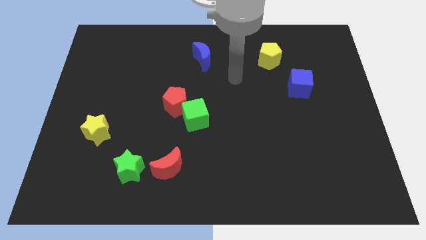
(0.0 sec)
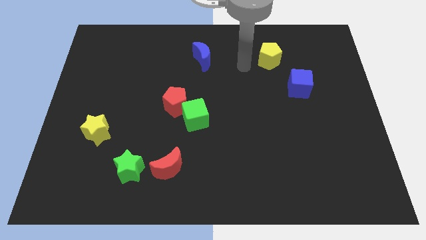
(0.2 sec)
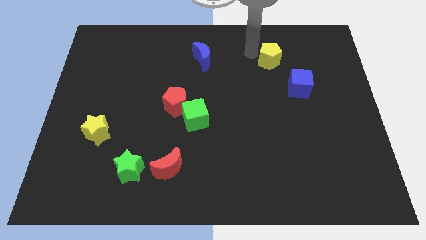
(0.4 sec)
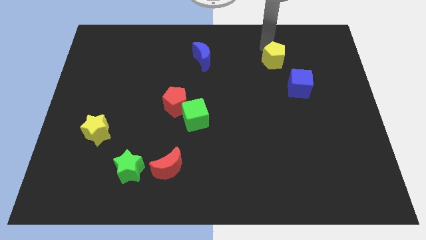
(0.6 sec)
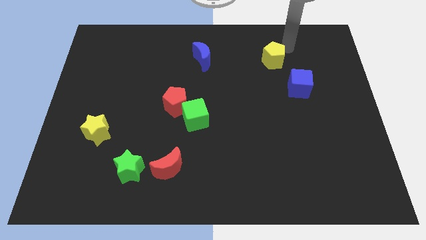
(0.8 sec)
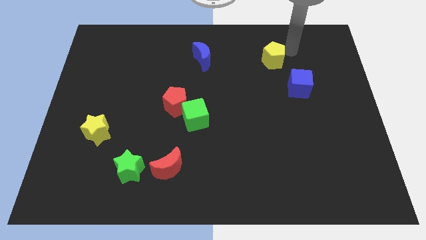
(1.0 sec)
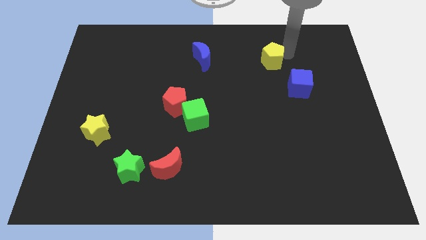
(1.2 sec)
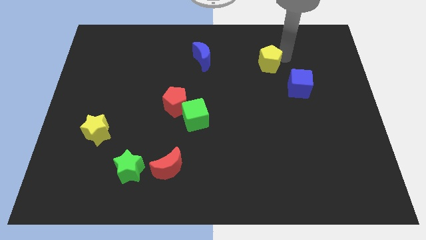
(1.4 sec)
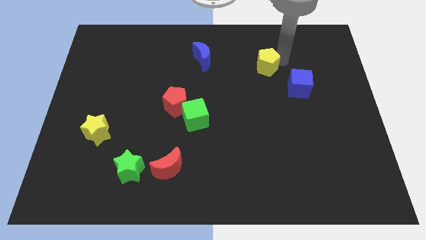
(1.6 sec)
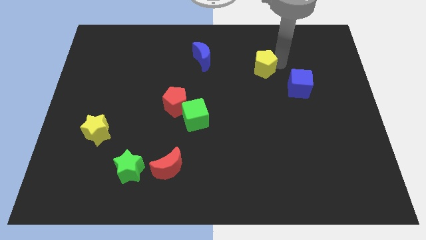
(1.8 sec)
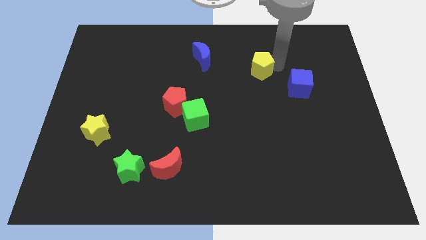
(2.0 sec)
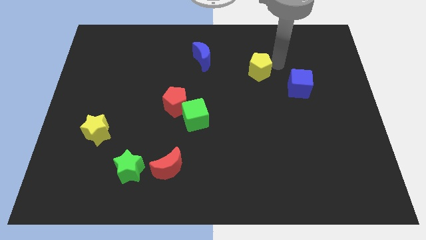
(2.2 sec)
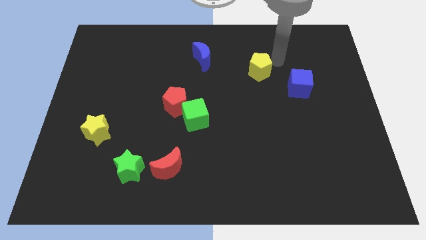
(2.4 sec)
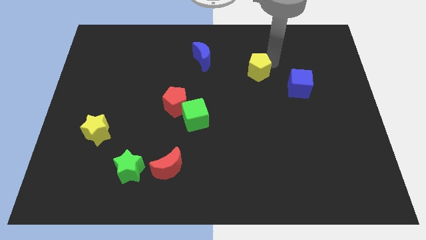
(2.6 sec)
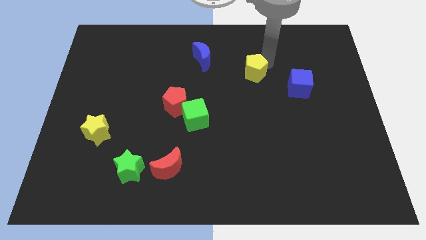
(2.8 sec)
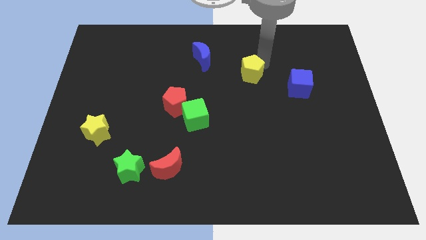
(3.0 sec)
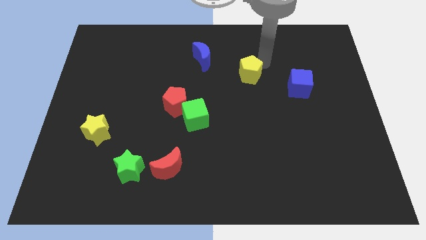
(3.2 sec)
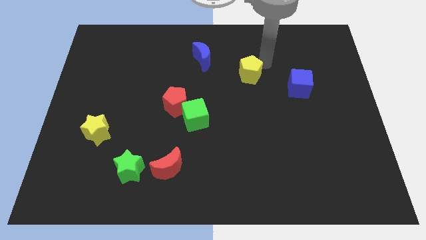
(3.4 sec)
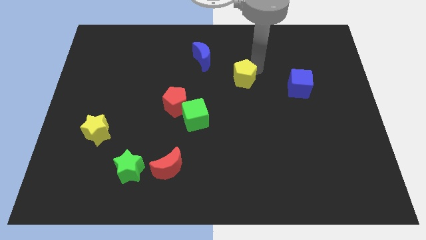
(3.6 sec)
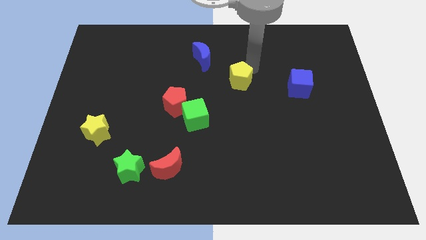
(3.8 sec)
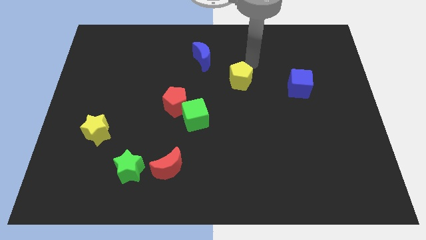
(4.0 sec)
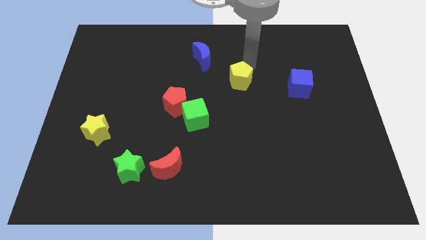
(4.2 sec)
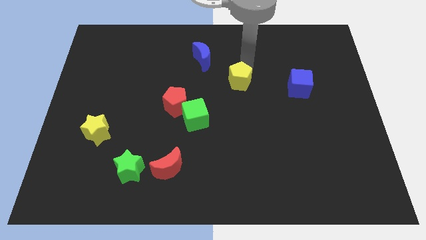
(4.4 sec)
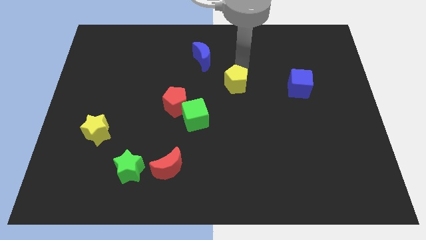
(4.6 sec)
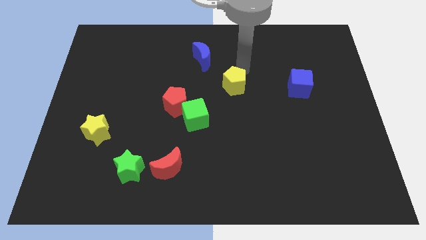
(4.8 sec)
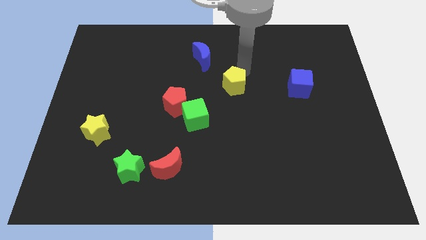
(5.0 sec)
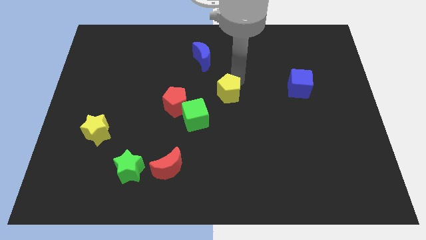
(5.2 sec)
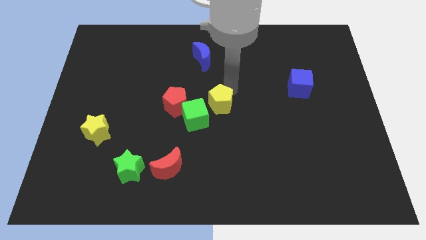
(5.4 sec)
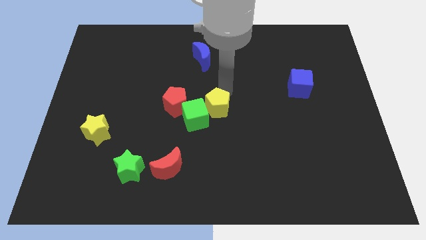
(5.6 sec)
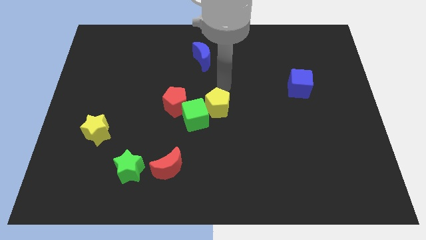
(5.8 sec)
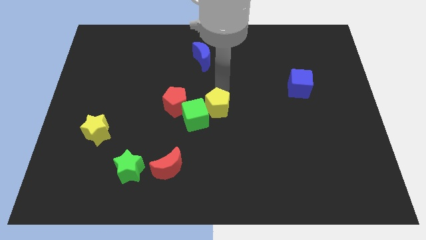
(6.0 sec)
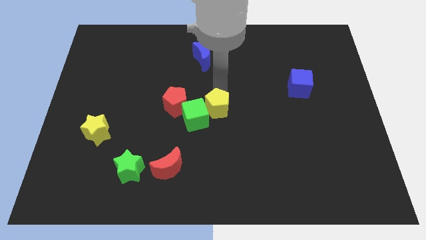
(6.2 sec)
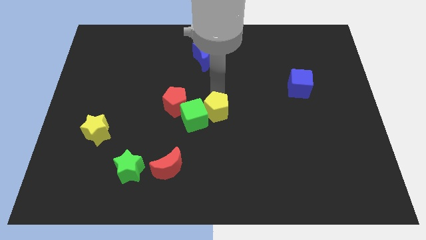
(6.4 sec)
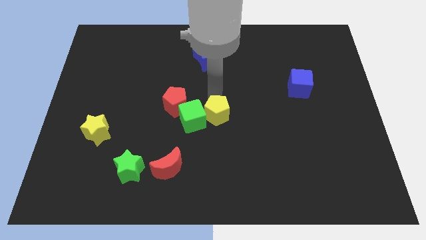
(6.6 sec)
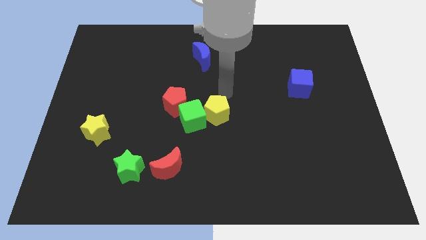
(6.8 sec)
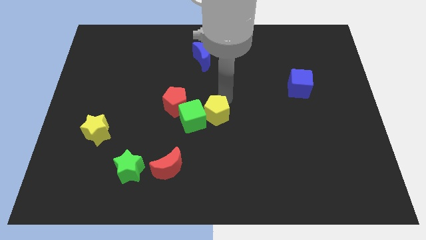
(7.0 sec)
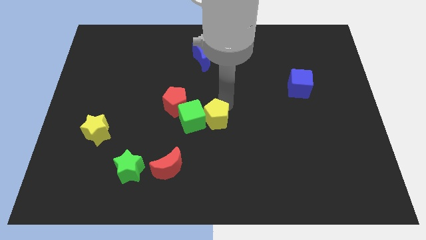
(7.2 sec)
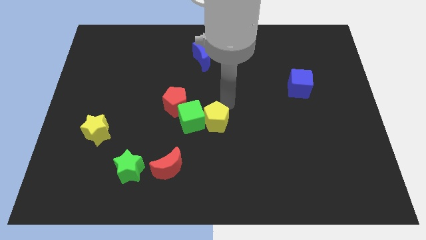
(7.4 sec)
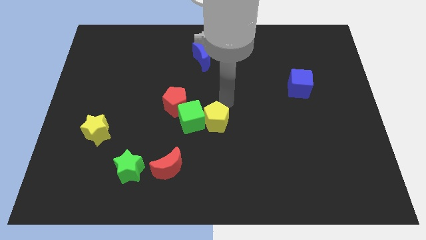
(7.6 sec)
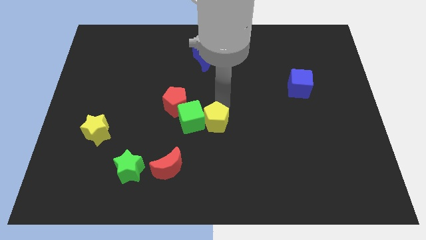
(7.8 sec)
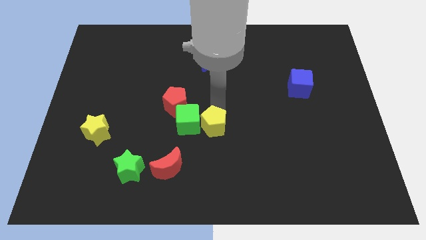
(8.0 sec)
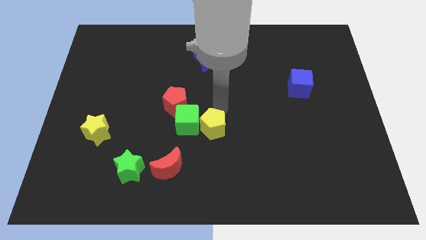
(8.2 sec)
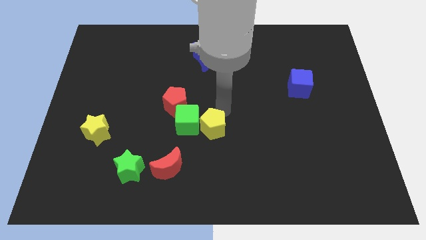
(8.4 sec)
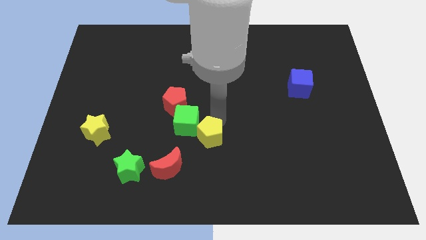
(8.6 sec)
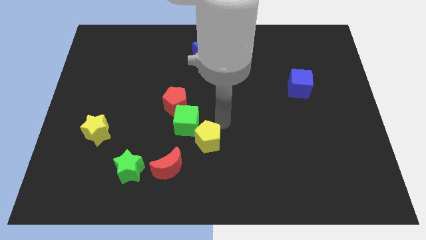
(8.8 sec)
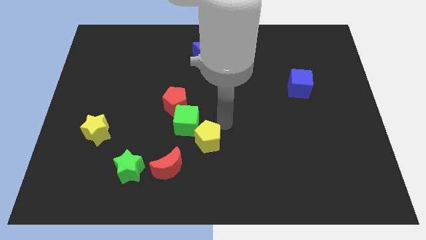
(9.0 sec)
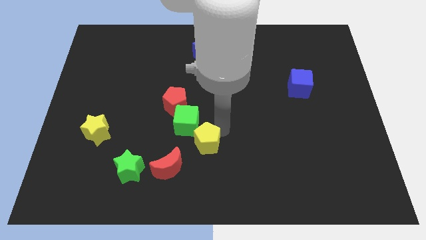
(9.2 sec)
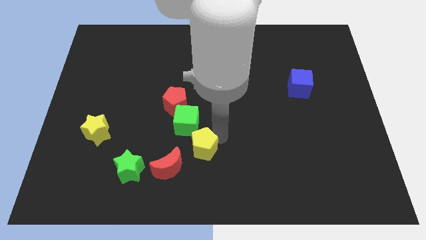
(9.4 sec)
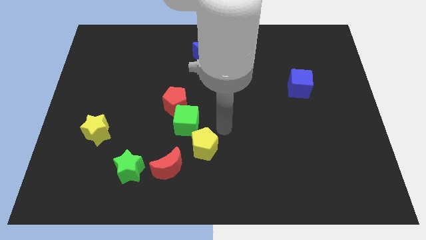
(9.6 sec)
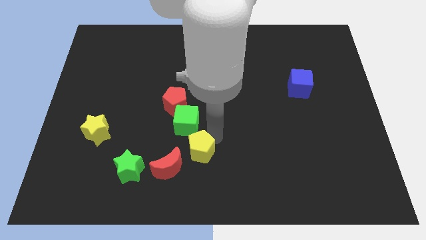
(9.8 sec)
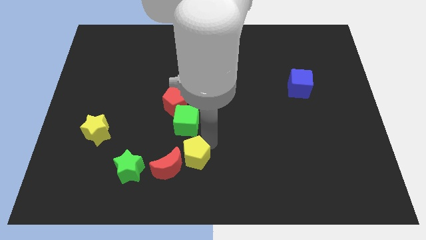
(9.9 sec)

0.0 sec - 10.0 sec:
put the yellow pentagon just right of the green star

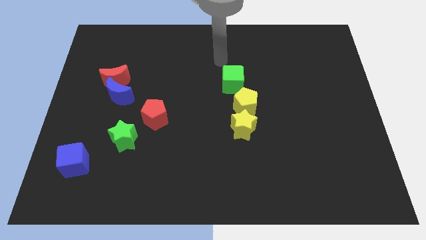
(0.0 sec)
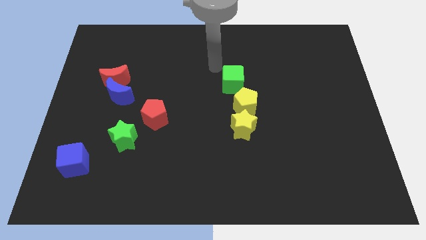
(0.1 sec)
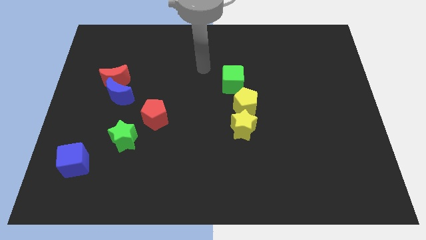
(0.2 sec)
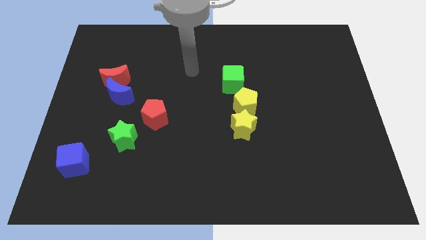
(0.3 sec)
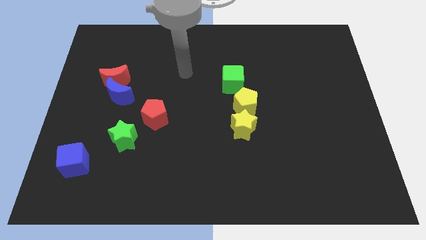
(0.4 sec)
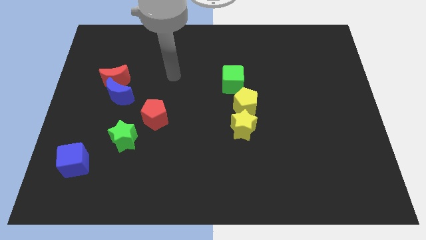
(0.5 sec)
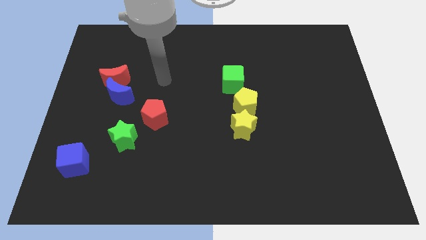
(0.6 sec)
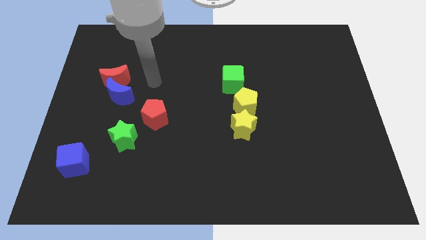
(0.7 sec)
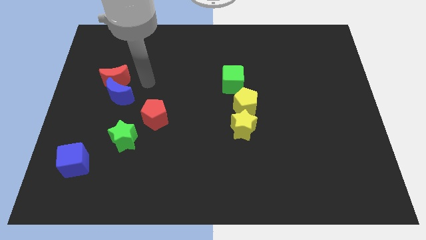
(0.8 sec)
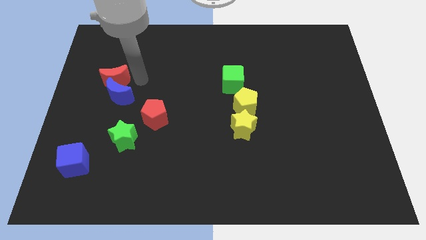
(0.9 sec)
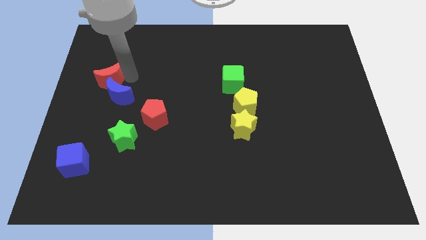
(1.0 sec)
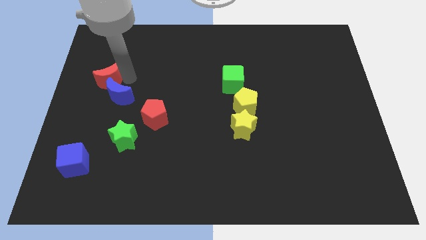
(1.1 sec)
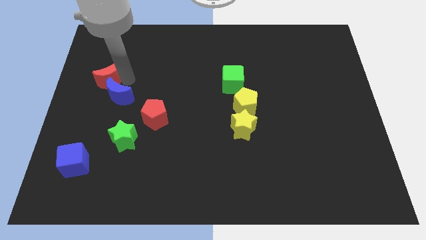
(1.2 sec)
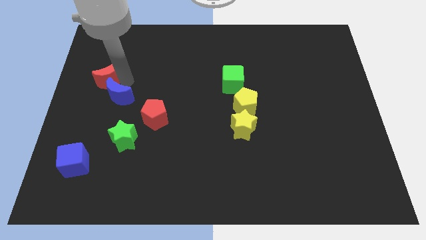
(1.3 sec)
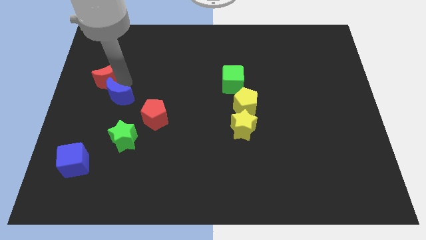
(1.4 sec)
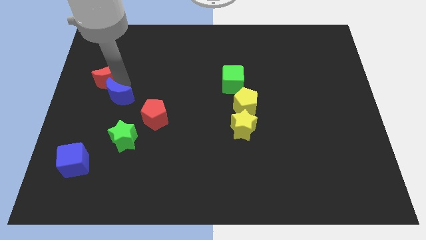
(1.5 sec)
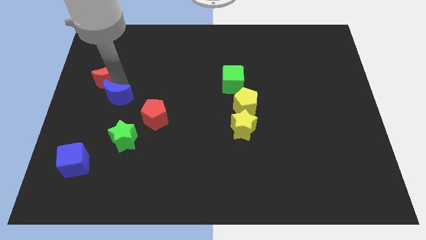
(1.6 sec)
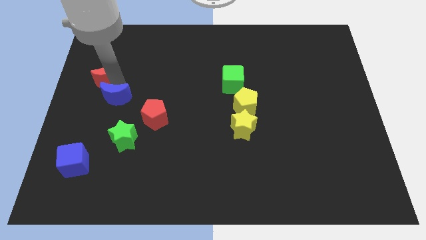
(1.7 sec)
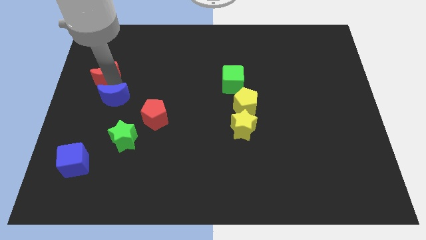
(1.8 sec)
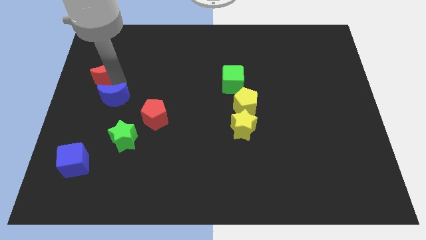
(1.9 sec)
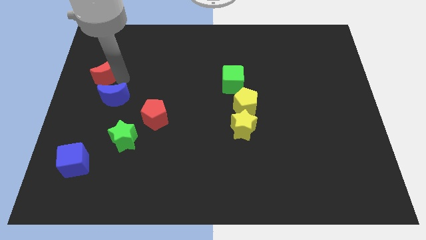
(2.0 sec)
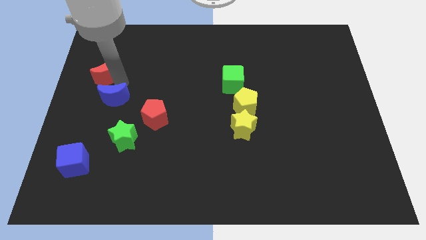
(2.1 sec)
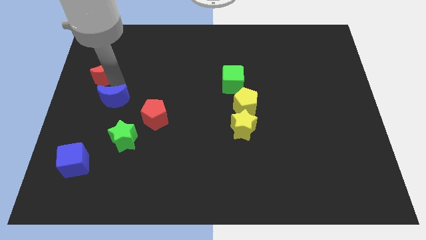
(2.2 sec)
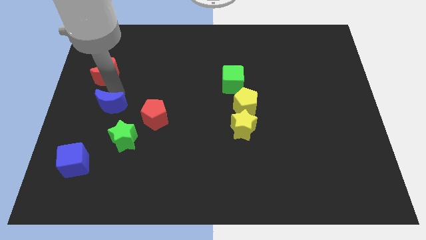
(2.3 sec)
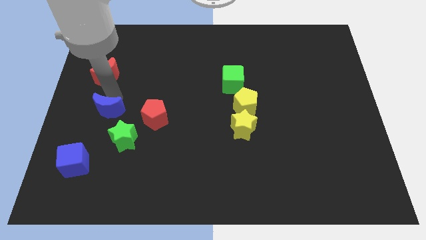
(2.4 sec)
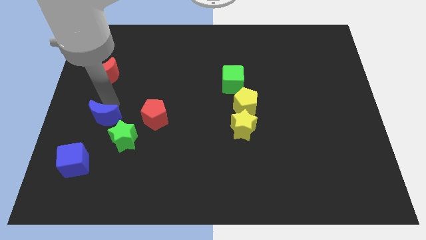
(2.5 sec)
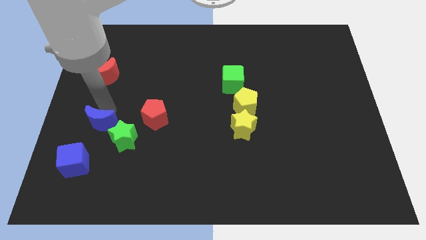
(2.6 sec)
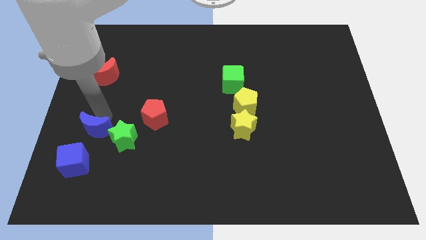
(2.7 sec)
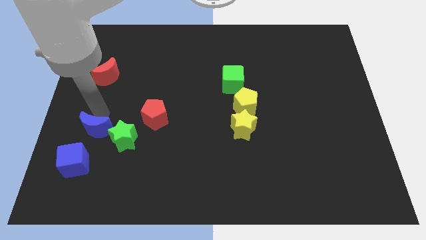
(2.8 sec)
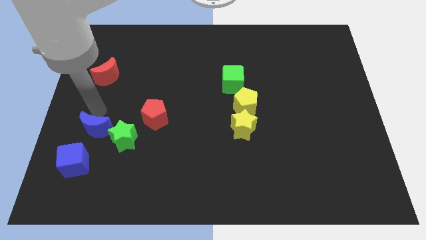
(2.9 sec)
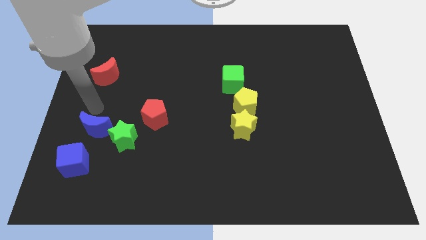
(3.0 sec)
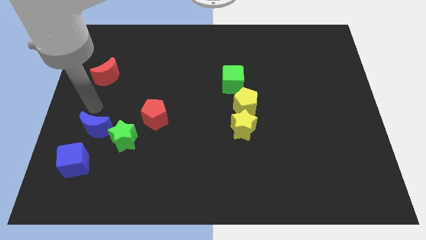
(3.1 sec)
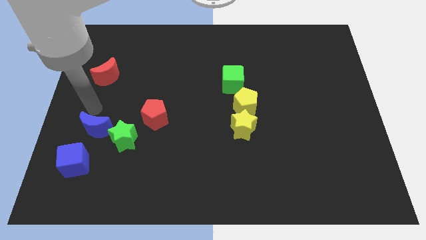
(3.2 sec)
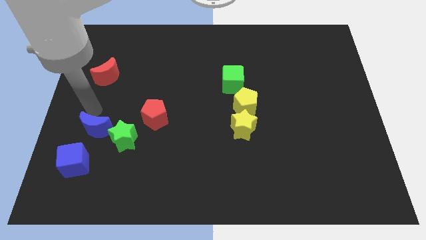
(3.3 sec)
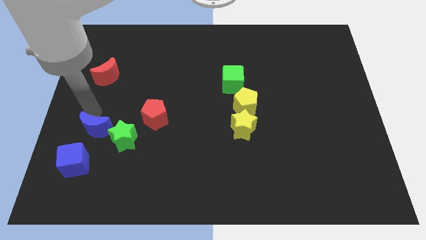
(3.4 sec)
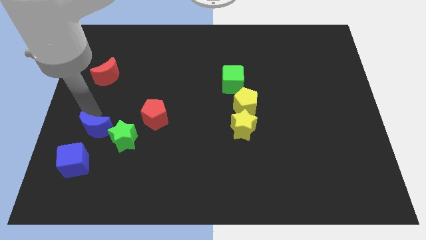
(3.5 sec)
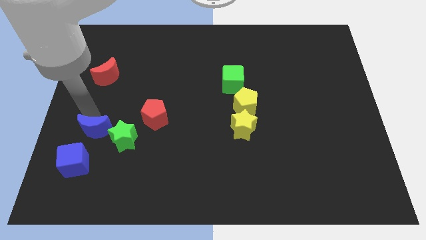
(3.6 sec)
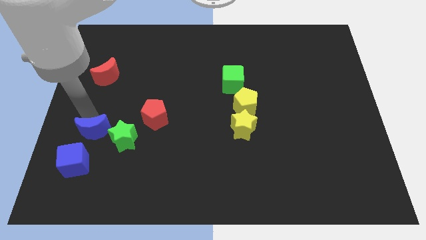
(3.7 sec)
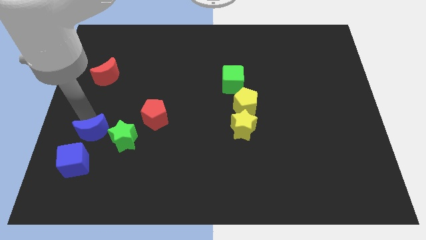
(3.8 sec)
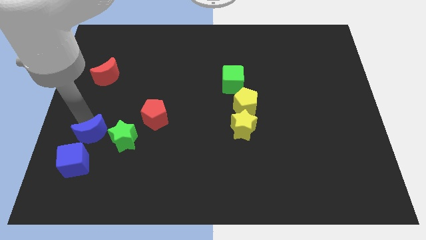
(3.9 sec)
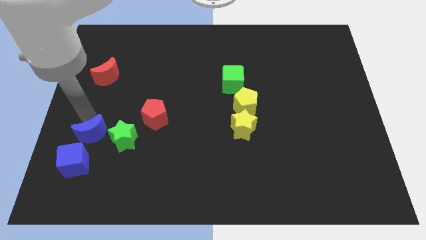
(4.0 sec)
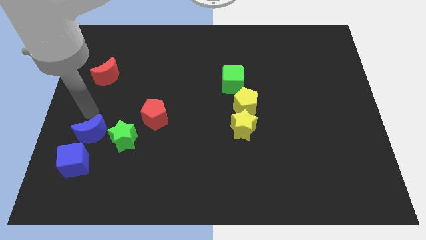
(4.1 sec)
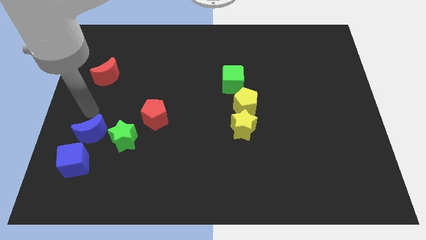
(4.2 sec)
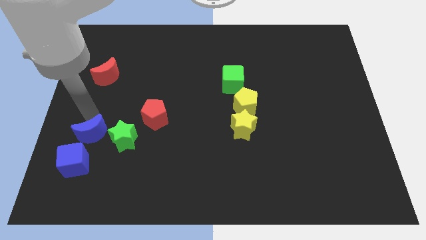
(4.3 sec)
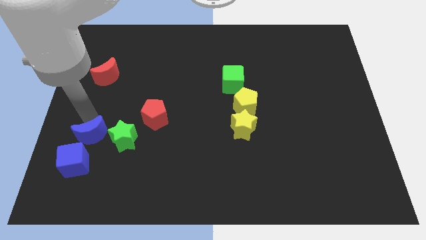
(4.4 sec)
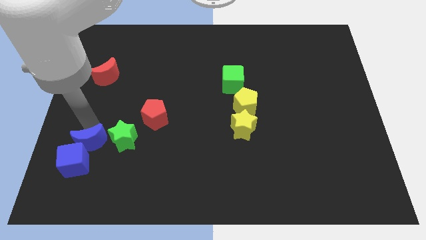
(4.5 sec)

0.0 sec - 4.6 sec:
slide the blue moon to the bottom left side of the green star
